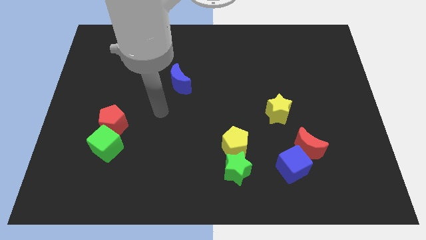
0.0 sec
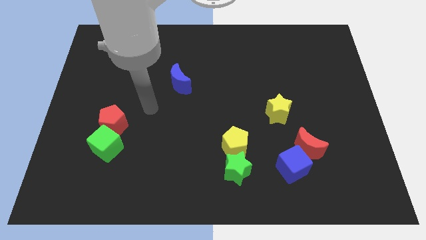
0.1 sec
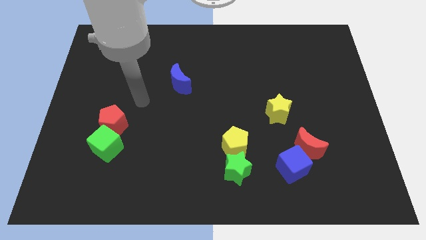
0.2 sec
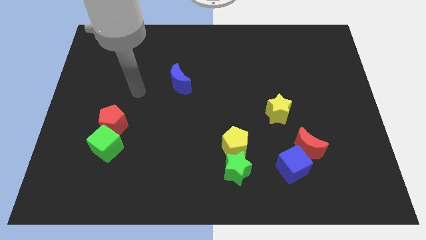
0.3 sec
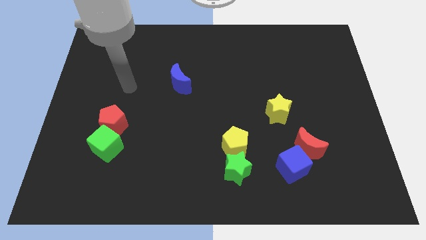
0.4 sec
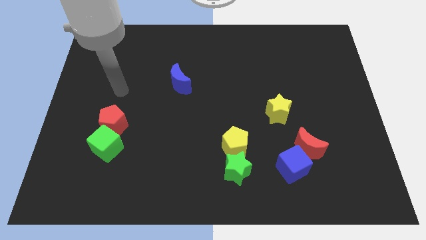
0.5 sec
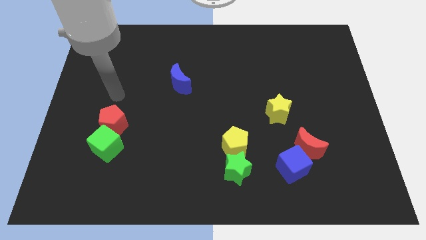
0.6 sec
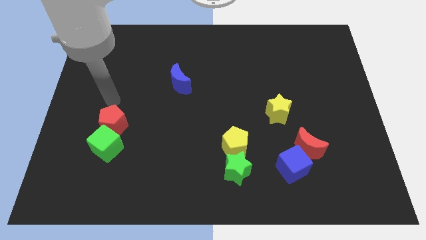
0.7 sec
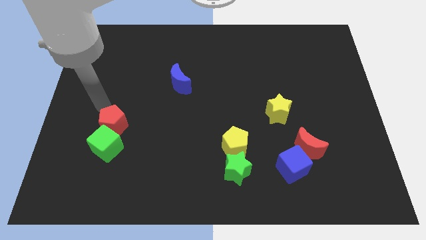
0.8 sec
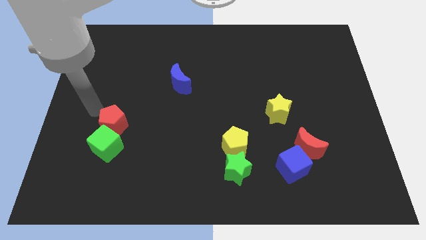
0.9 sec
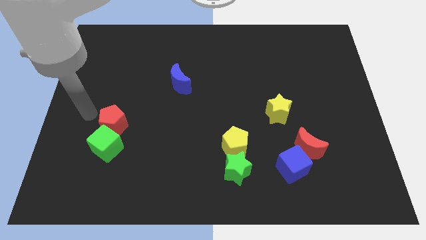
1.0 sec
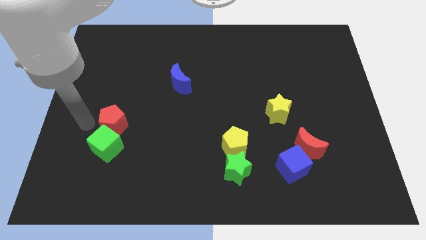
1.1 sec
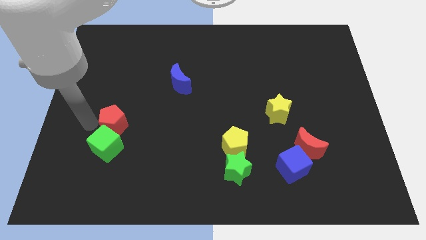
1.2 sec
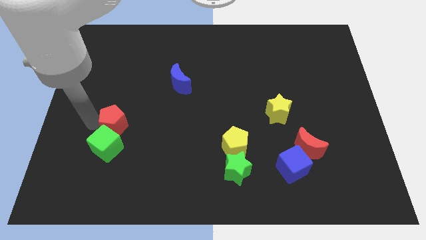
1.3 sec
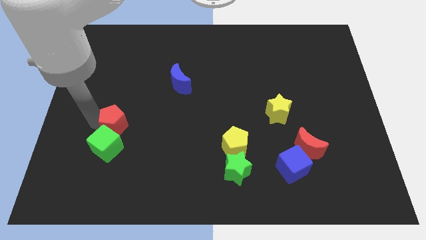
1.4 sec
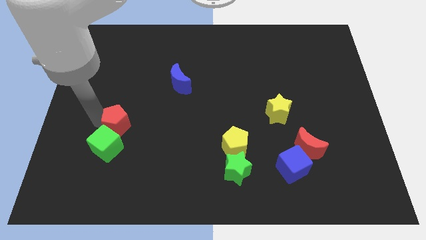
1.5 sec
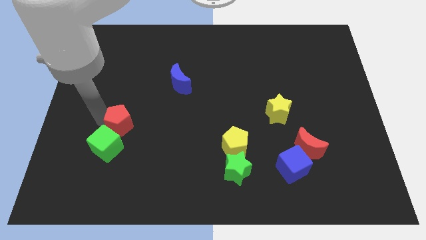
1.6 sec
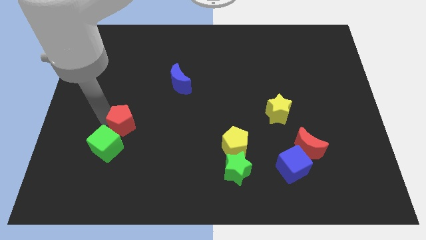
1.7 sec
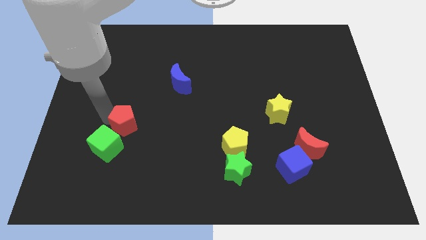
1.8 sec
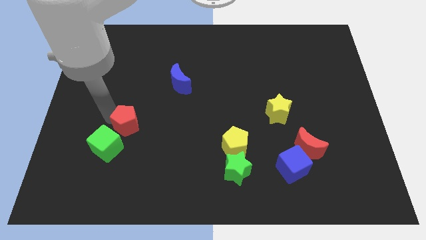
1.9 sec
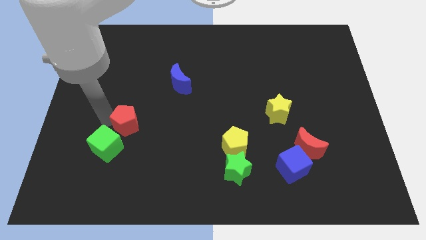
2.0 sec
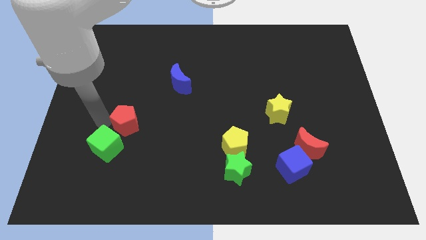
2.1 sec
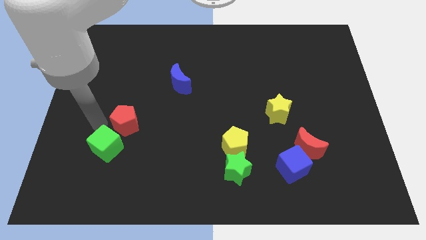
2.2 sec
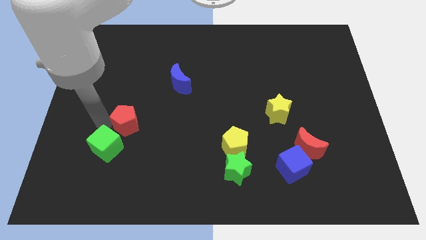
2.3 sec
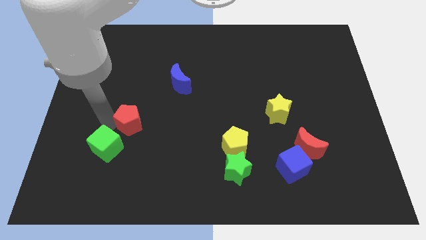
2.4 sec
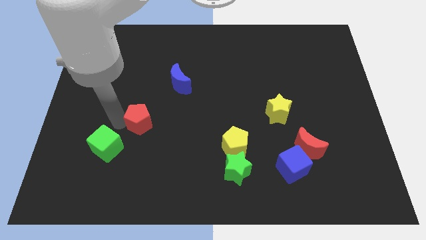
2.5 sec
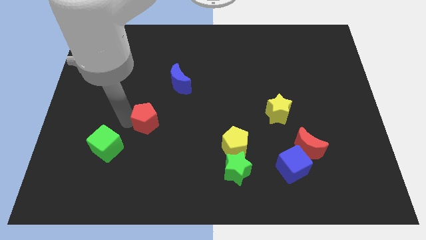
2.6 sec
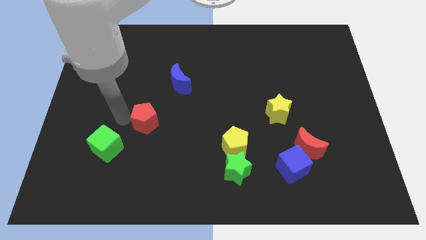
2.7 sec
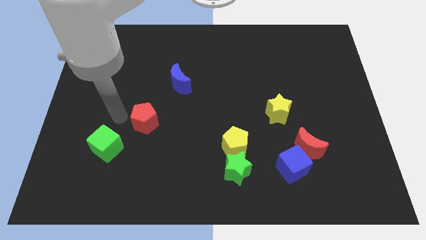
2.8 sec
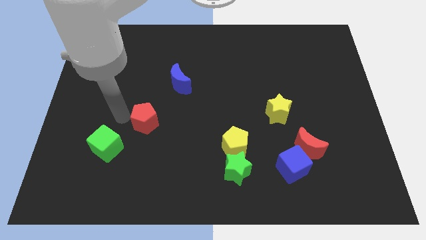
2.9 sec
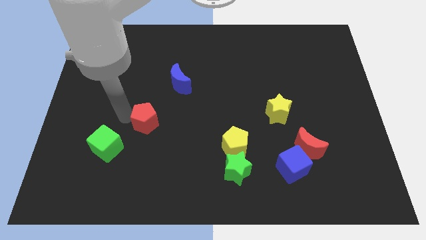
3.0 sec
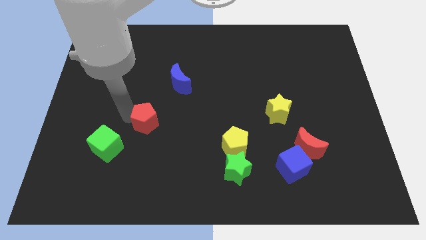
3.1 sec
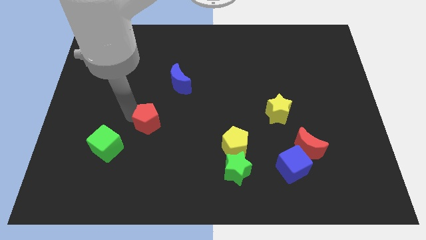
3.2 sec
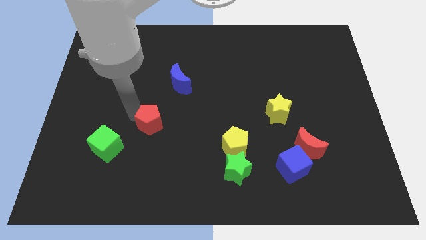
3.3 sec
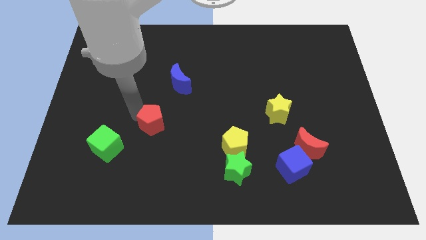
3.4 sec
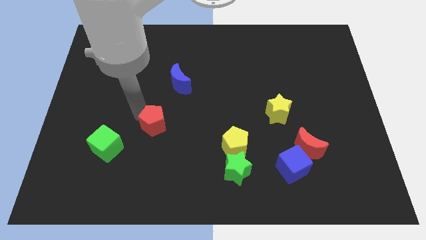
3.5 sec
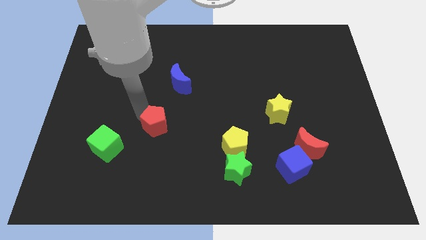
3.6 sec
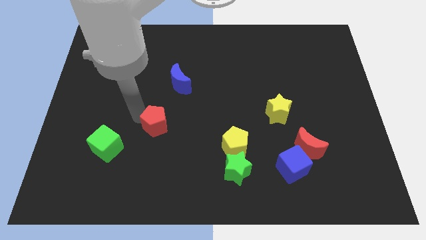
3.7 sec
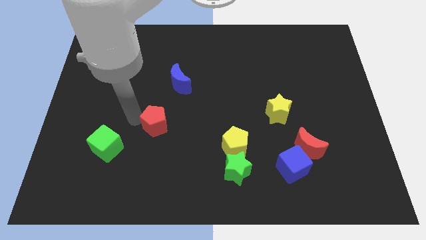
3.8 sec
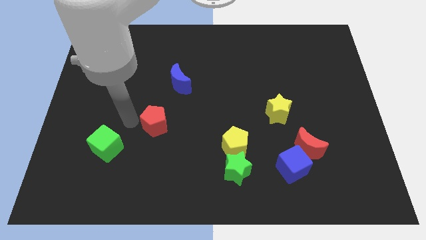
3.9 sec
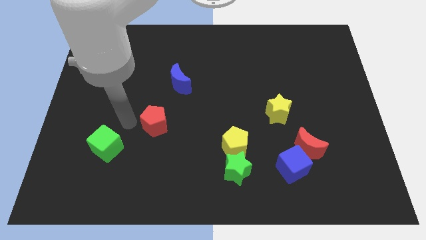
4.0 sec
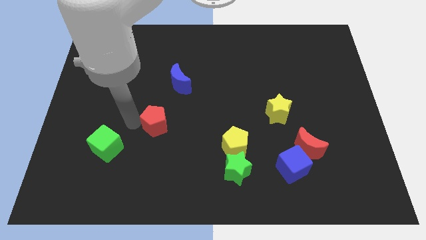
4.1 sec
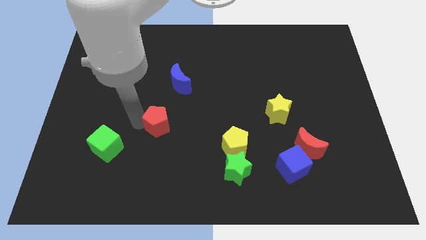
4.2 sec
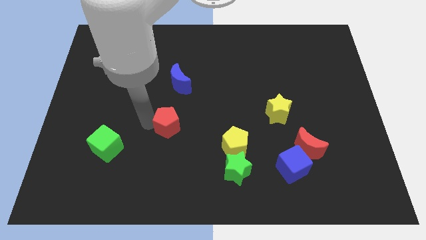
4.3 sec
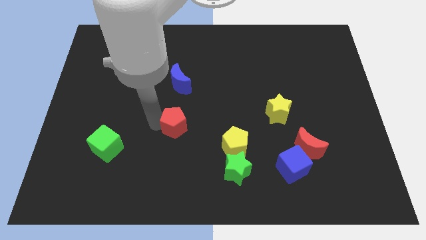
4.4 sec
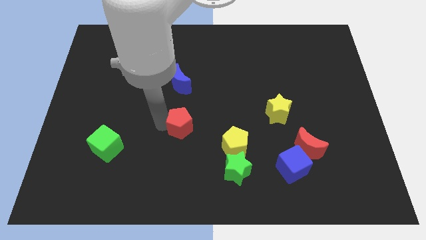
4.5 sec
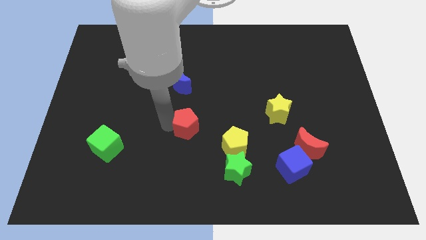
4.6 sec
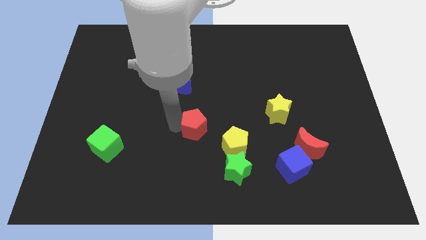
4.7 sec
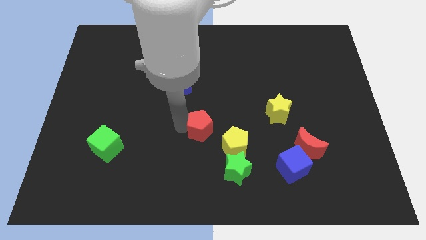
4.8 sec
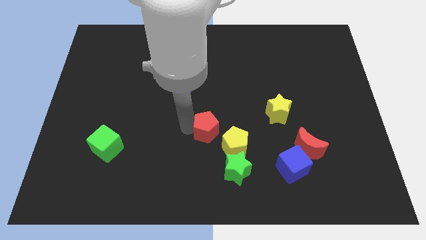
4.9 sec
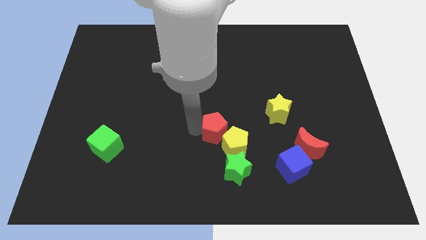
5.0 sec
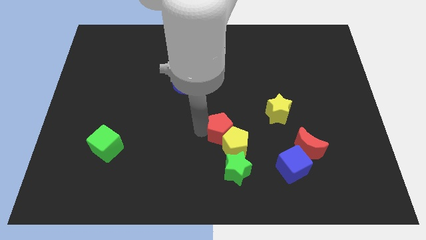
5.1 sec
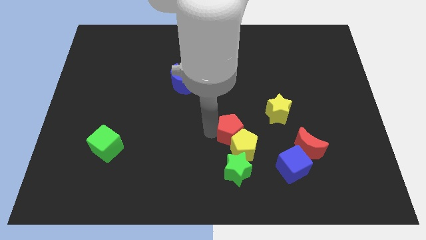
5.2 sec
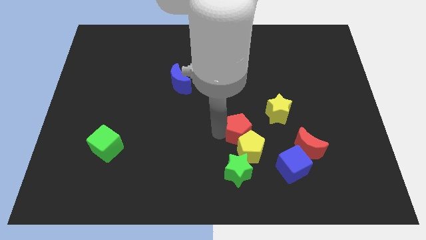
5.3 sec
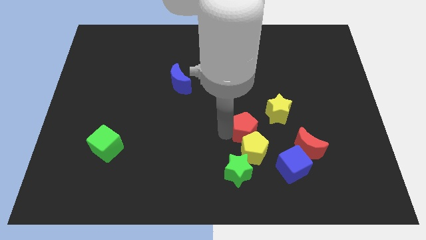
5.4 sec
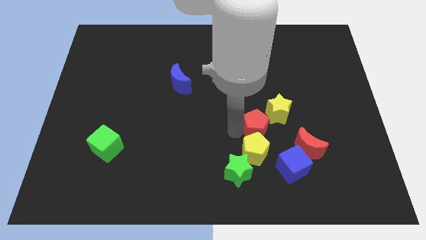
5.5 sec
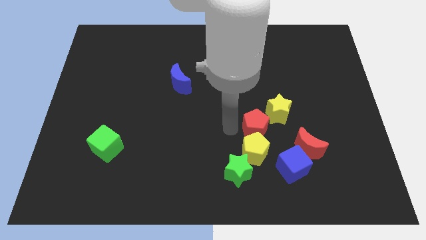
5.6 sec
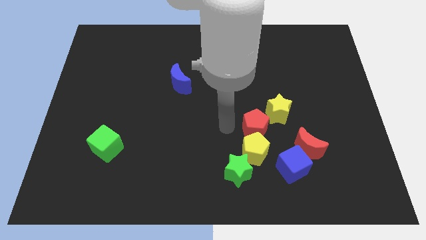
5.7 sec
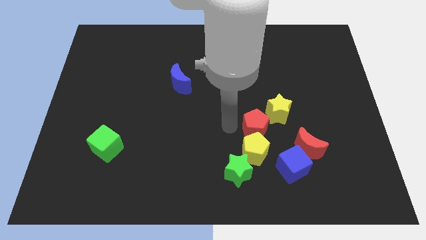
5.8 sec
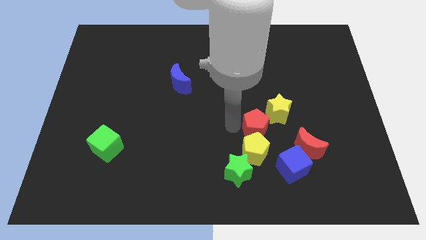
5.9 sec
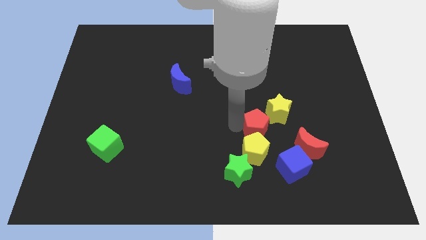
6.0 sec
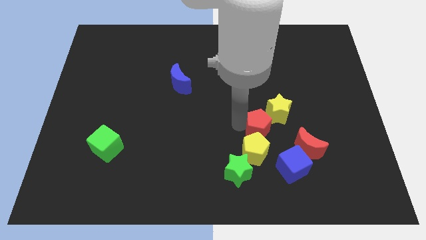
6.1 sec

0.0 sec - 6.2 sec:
move the red pentagon to the top left side of the red moon

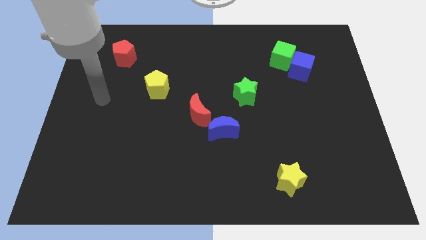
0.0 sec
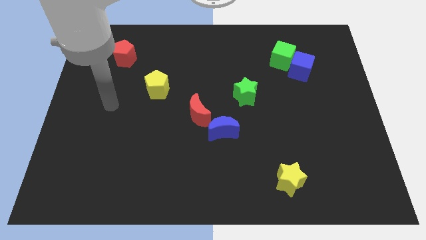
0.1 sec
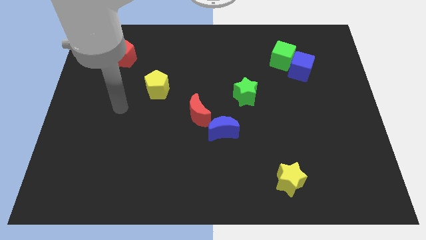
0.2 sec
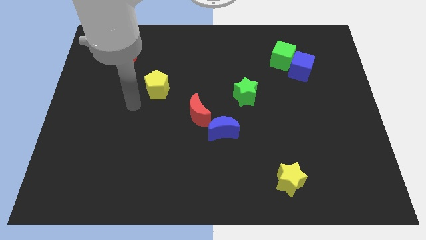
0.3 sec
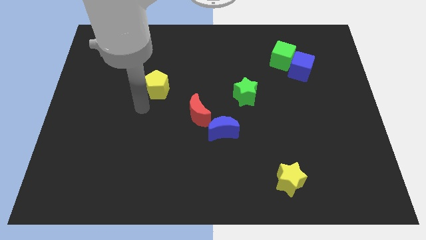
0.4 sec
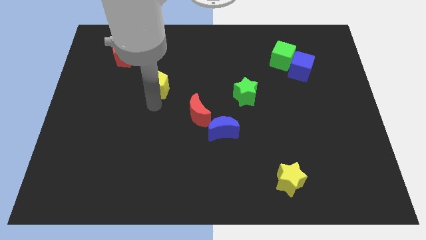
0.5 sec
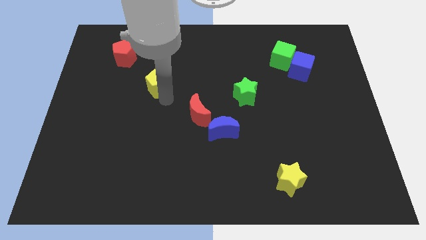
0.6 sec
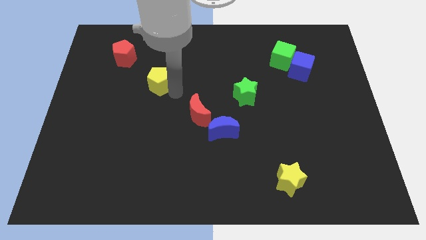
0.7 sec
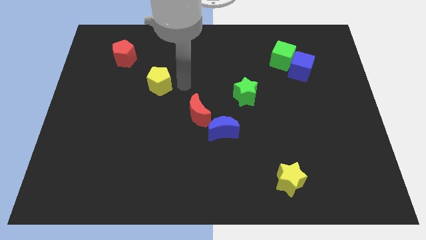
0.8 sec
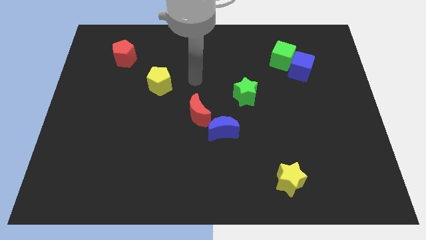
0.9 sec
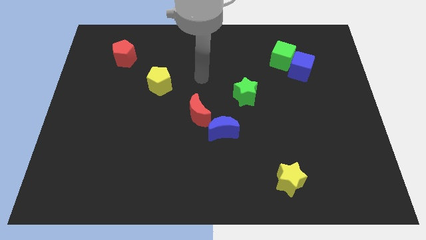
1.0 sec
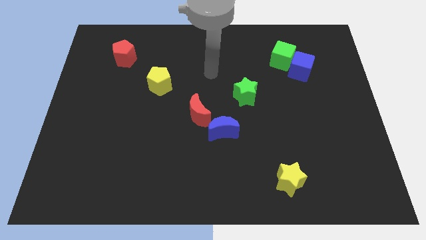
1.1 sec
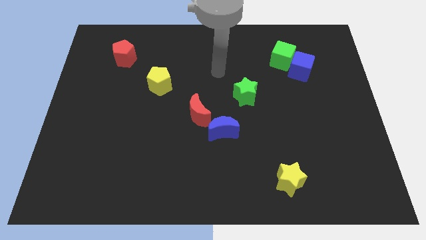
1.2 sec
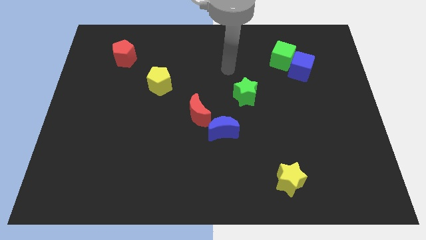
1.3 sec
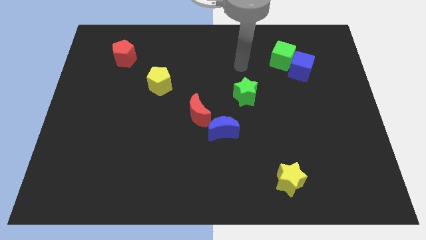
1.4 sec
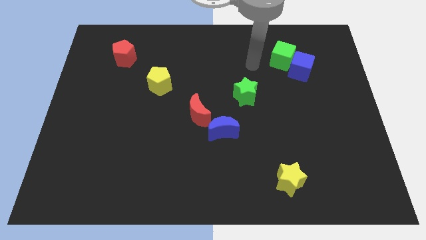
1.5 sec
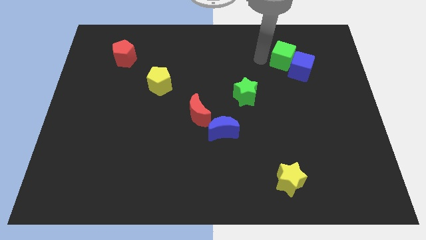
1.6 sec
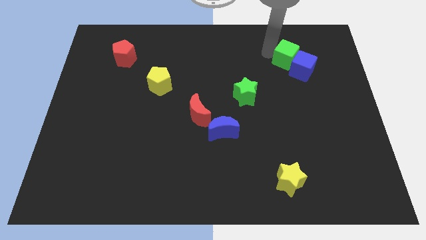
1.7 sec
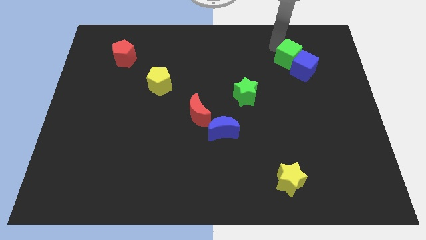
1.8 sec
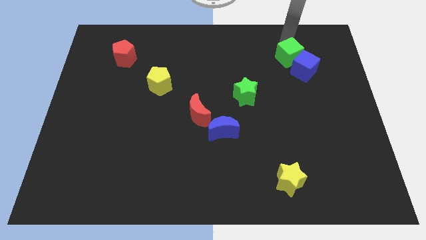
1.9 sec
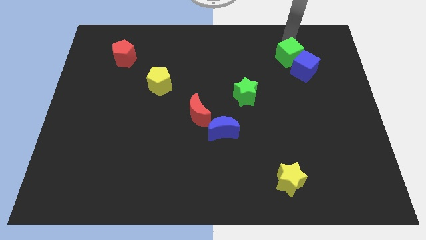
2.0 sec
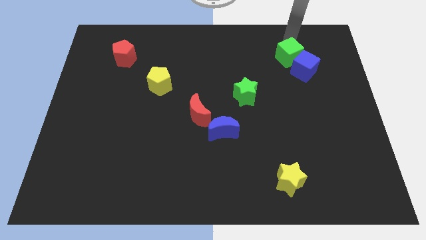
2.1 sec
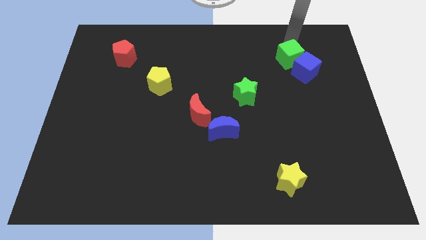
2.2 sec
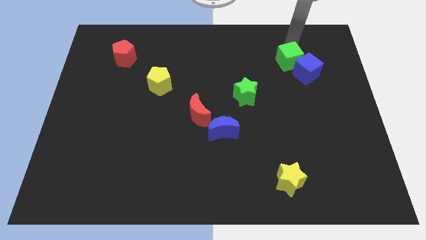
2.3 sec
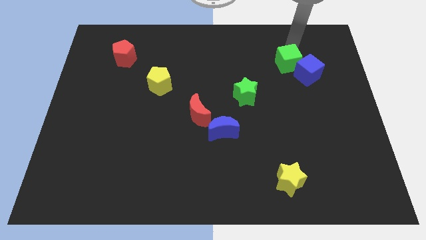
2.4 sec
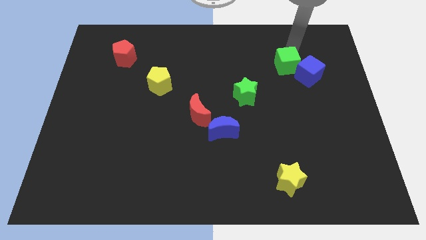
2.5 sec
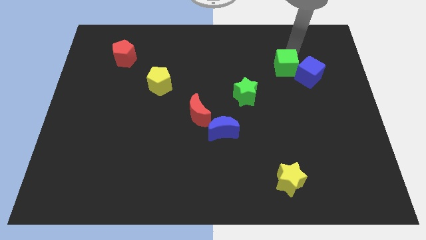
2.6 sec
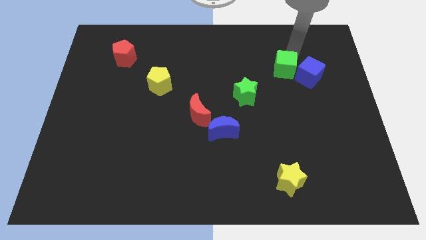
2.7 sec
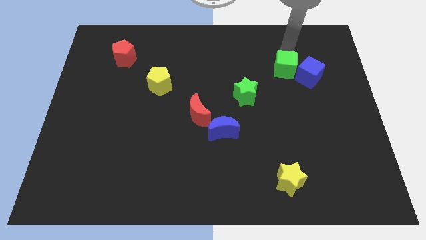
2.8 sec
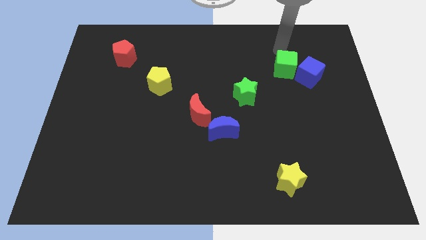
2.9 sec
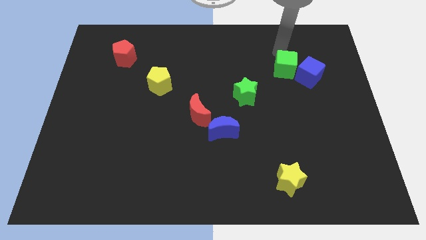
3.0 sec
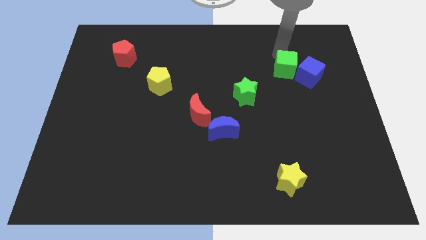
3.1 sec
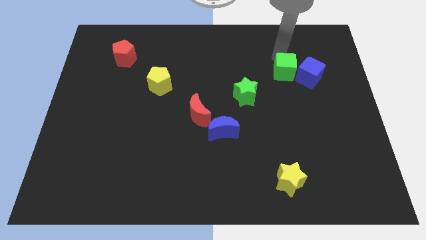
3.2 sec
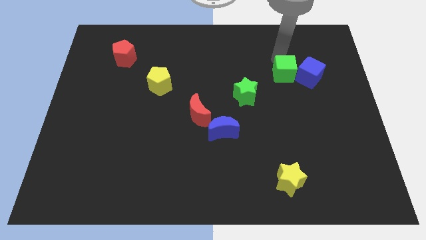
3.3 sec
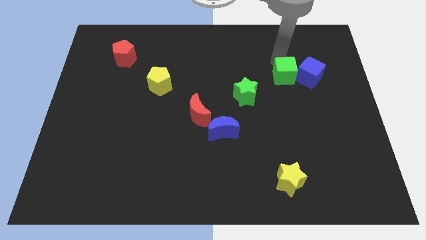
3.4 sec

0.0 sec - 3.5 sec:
move the green cube to the bottom left of the blue cube
